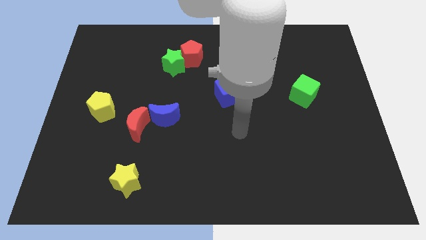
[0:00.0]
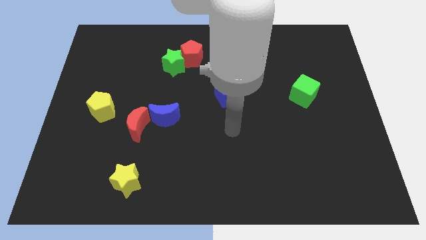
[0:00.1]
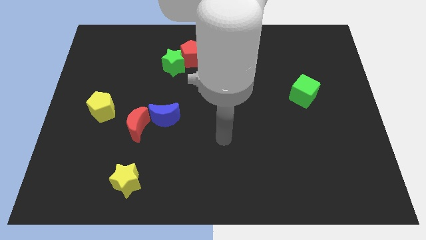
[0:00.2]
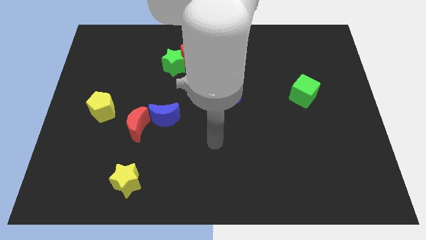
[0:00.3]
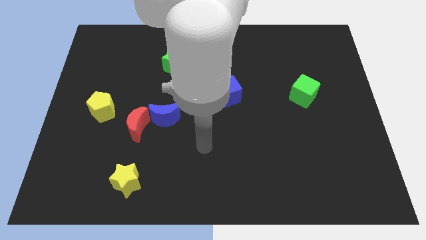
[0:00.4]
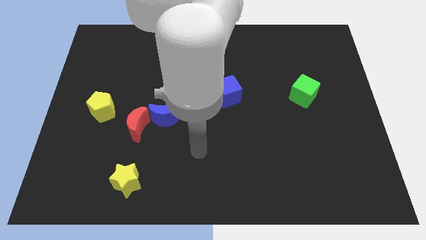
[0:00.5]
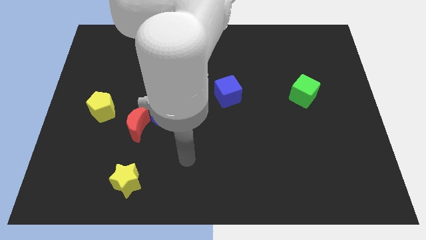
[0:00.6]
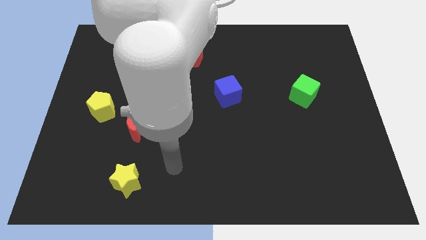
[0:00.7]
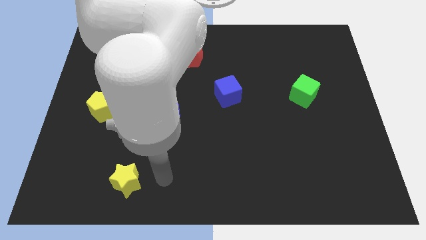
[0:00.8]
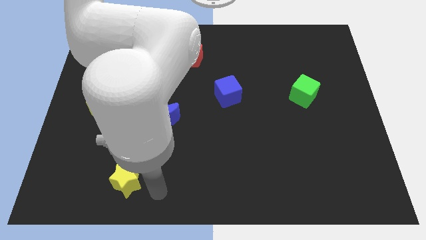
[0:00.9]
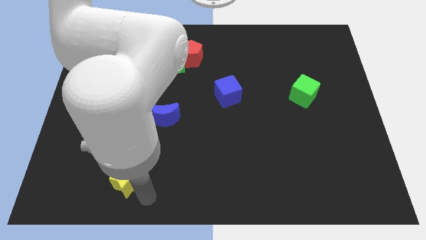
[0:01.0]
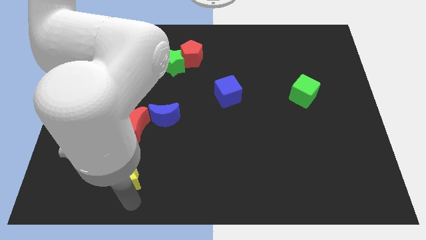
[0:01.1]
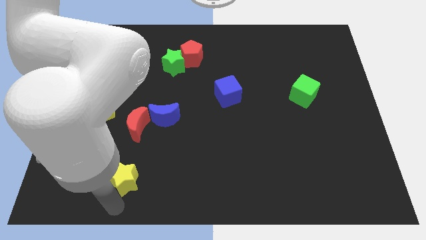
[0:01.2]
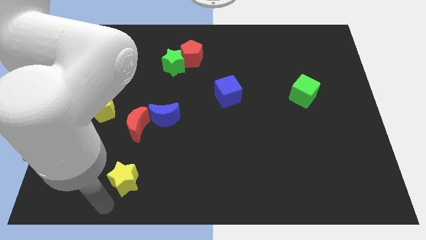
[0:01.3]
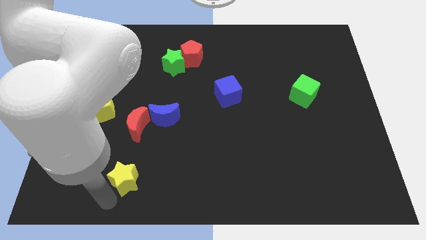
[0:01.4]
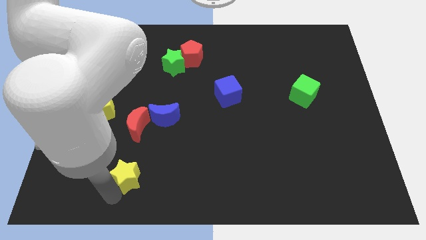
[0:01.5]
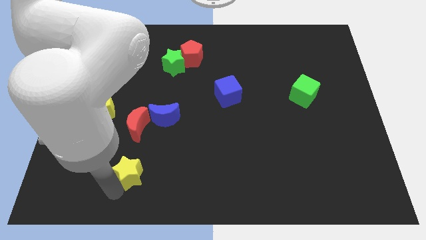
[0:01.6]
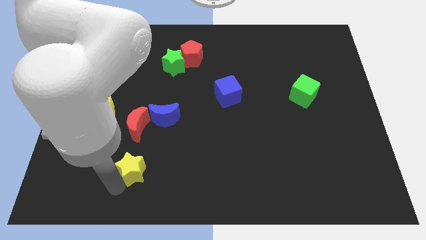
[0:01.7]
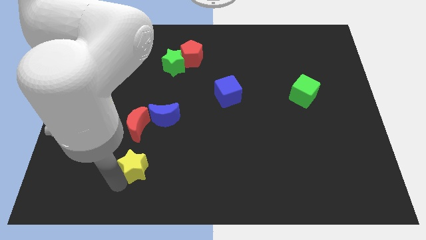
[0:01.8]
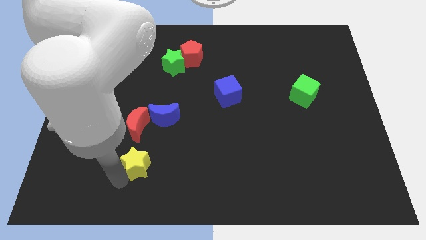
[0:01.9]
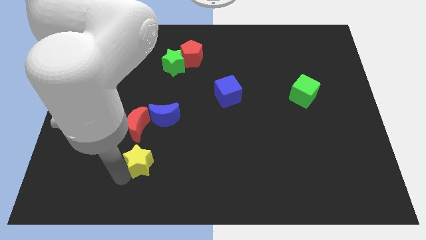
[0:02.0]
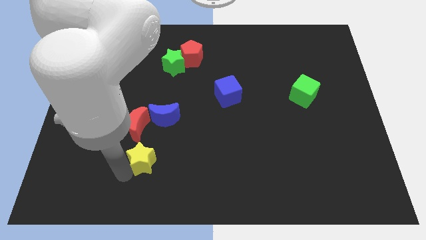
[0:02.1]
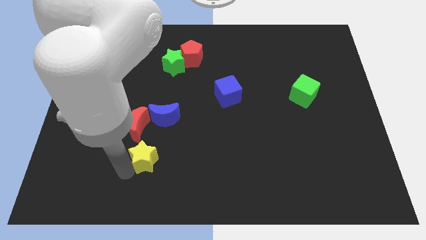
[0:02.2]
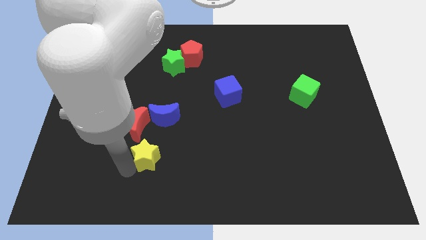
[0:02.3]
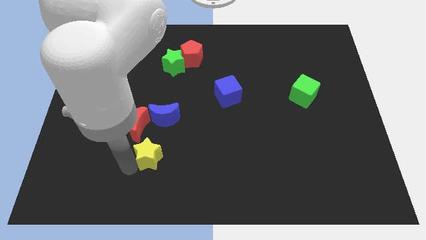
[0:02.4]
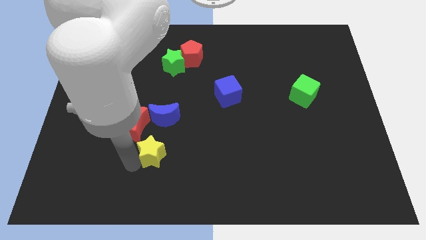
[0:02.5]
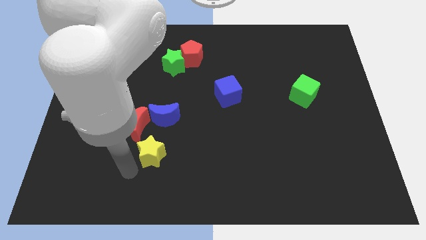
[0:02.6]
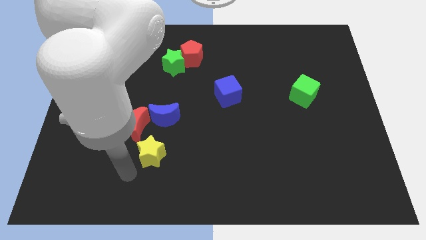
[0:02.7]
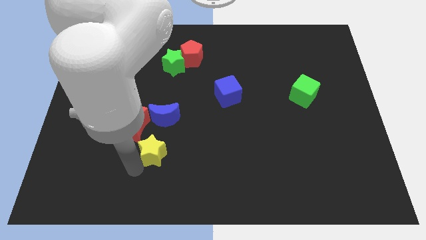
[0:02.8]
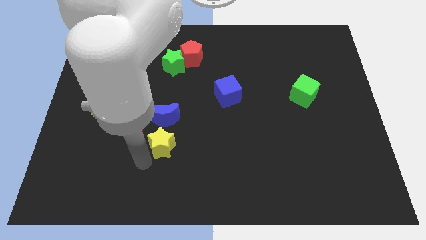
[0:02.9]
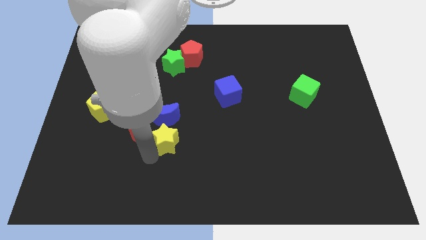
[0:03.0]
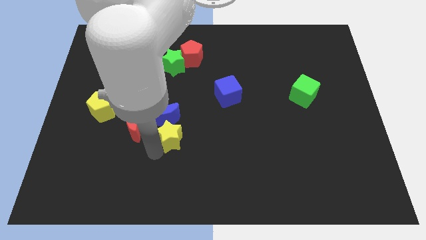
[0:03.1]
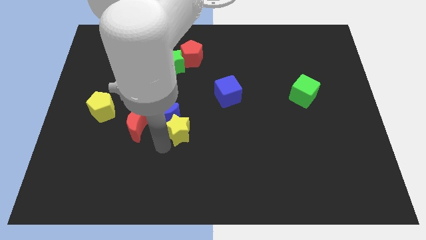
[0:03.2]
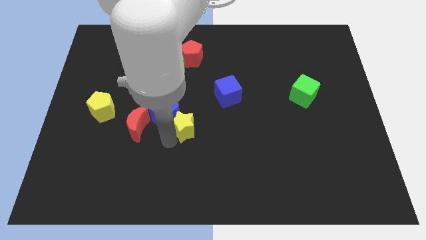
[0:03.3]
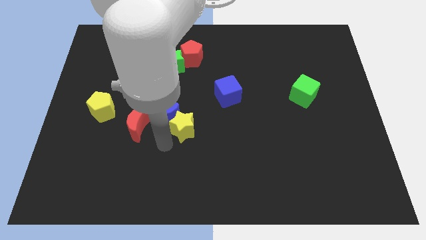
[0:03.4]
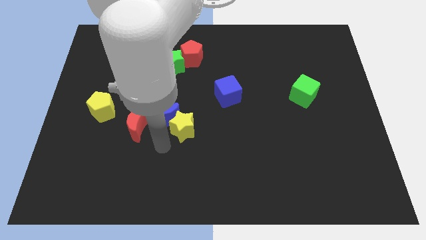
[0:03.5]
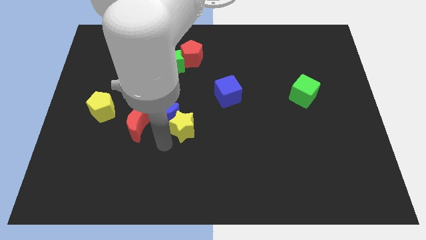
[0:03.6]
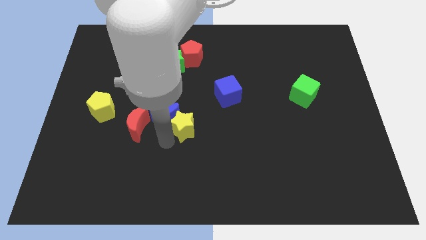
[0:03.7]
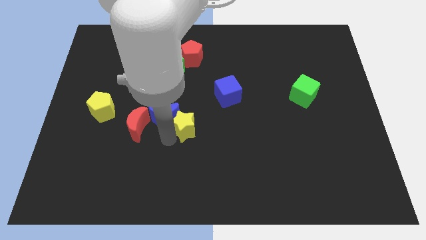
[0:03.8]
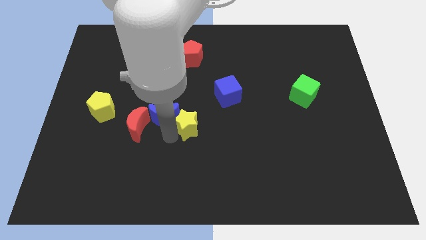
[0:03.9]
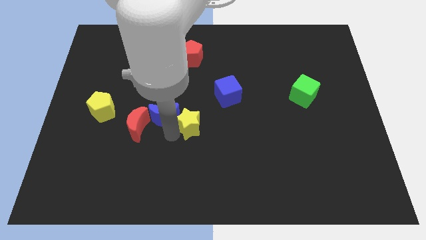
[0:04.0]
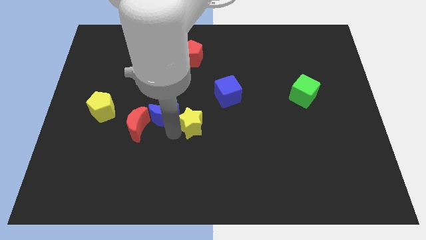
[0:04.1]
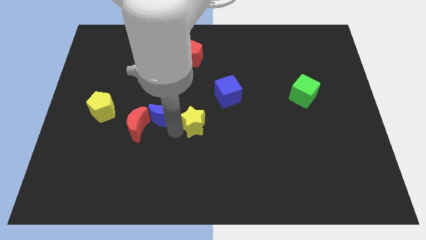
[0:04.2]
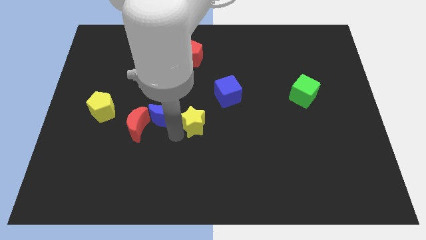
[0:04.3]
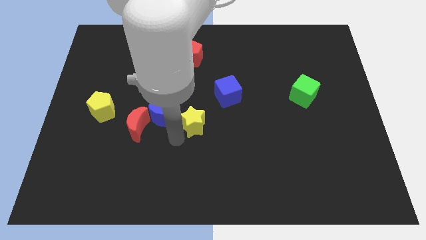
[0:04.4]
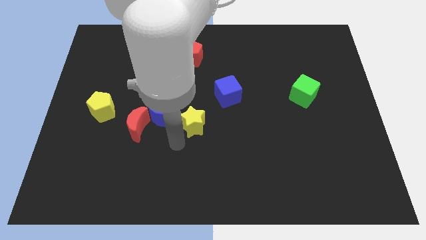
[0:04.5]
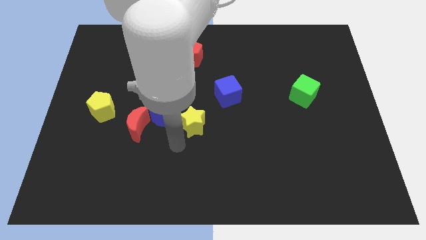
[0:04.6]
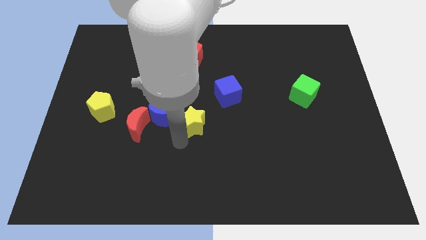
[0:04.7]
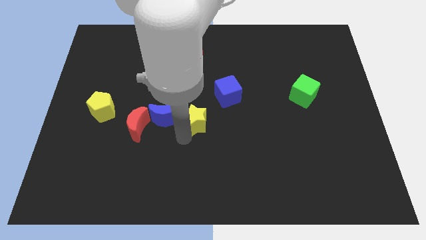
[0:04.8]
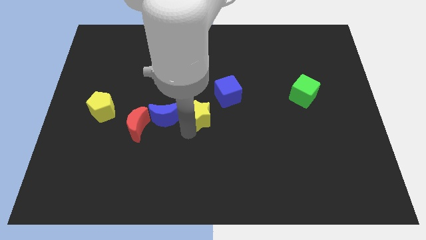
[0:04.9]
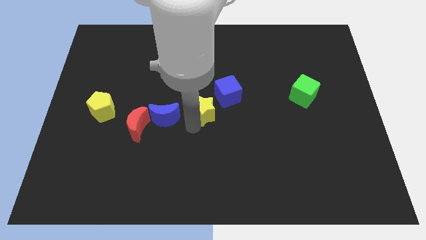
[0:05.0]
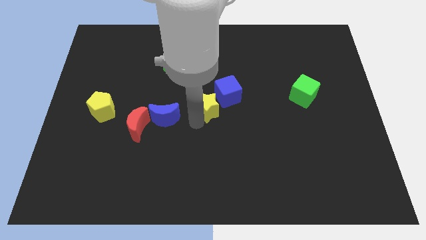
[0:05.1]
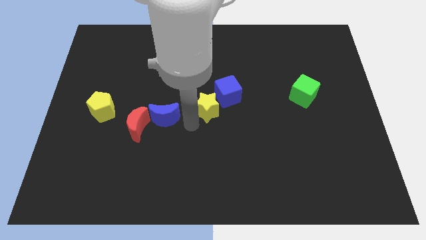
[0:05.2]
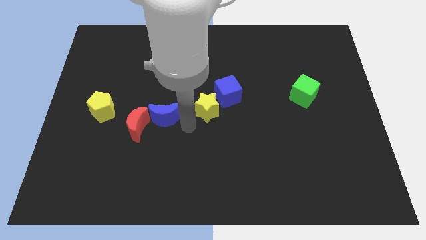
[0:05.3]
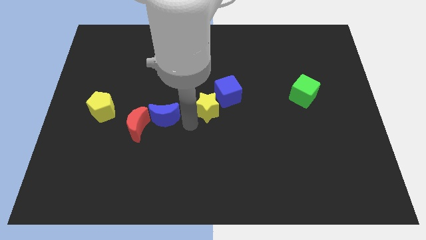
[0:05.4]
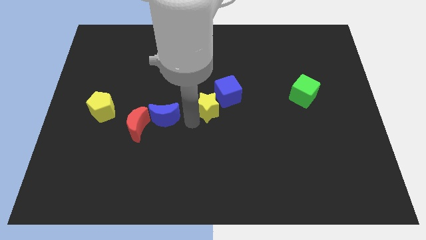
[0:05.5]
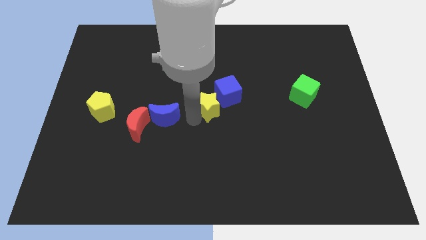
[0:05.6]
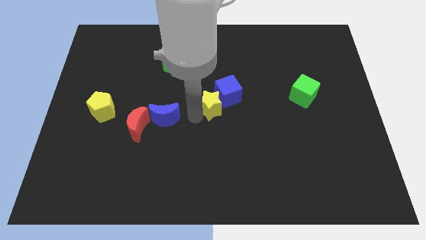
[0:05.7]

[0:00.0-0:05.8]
move the yellow star to the blue cube

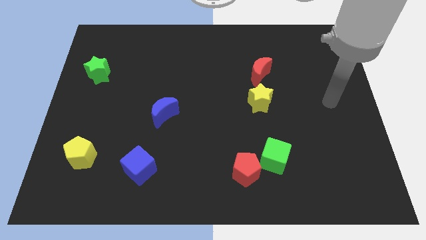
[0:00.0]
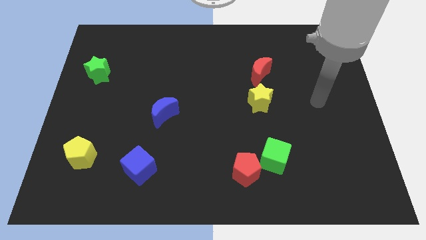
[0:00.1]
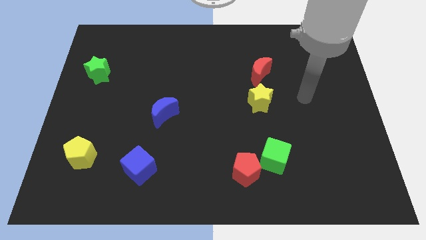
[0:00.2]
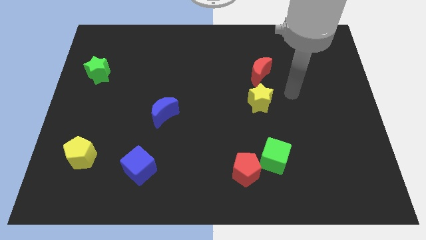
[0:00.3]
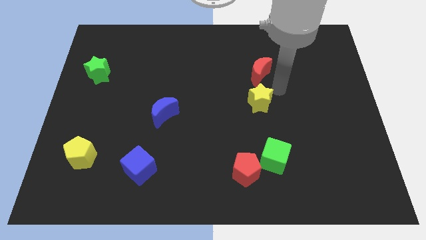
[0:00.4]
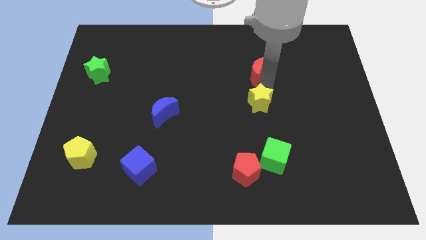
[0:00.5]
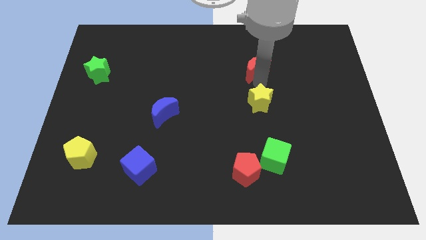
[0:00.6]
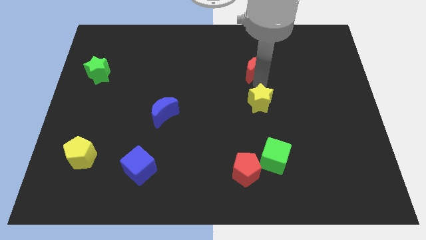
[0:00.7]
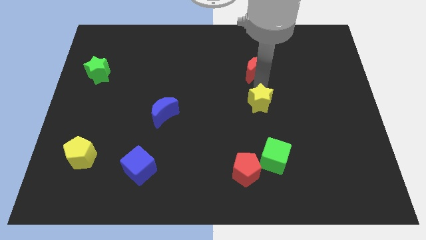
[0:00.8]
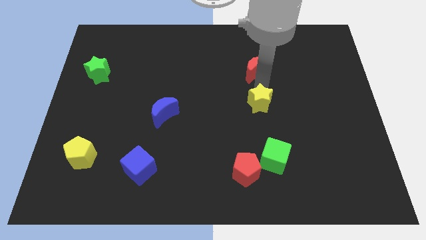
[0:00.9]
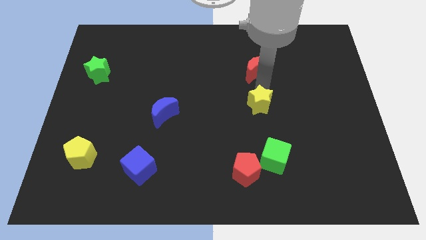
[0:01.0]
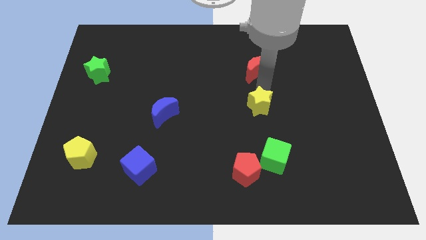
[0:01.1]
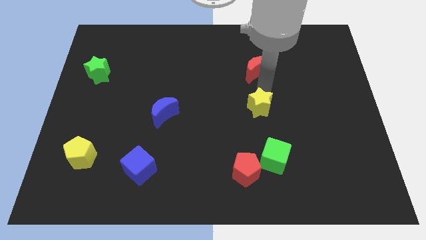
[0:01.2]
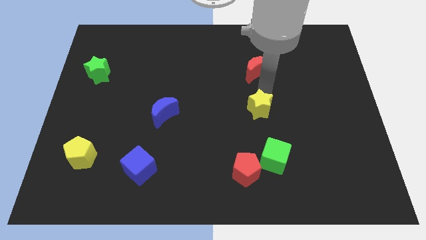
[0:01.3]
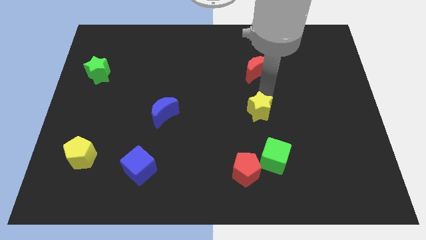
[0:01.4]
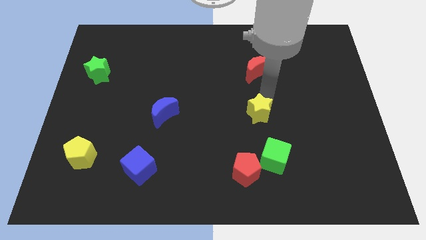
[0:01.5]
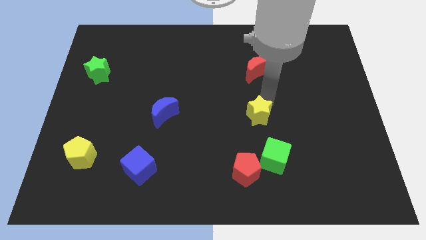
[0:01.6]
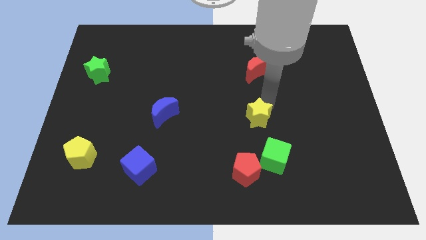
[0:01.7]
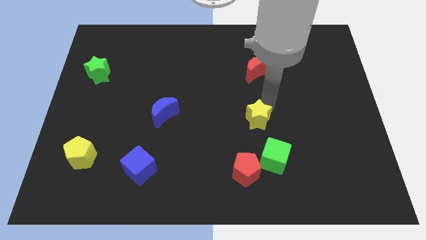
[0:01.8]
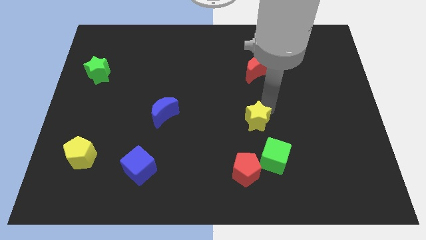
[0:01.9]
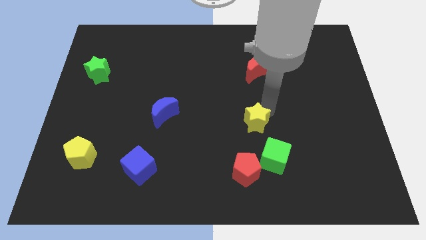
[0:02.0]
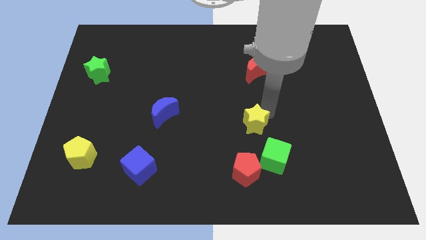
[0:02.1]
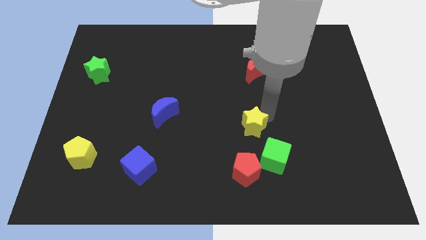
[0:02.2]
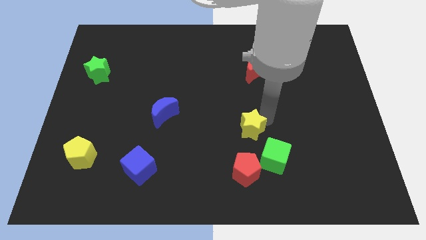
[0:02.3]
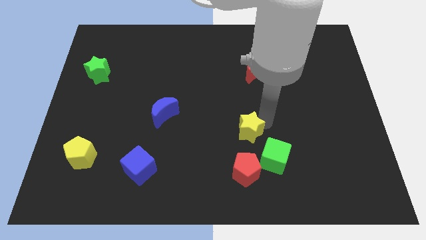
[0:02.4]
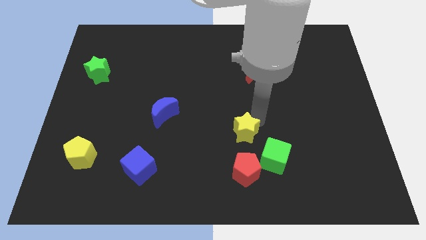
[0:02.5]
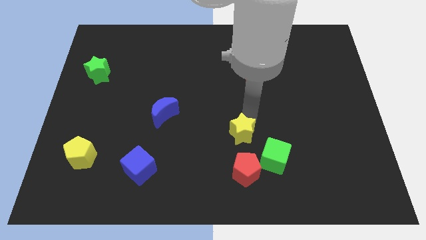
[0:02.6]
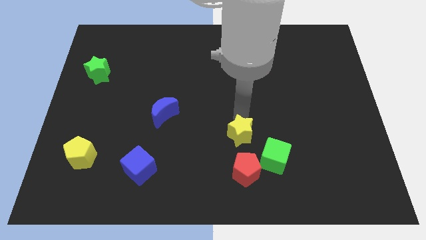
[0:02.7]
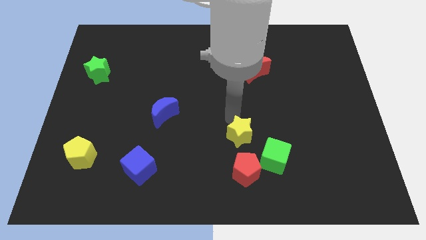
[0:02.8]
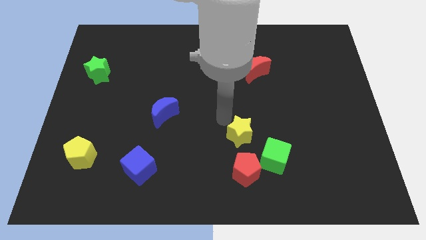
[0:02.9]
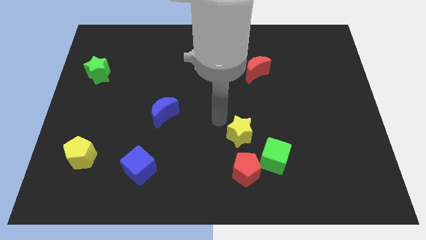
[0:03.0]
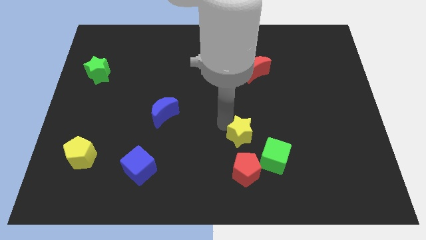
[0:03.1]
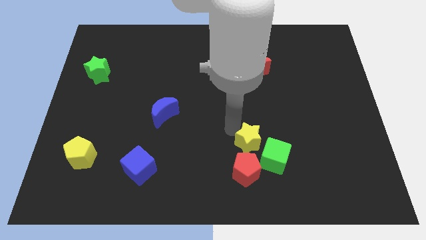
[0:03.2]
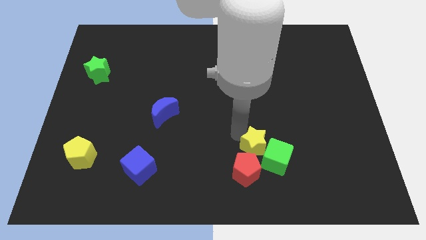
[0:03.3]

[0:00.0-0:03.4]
move the yellow star next to the green cube
